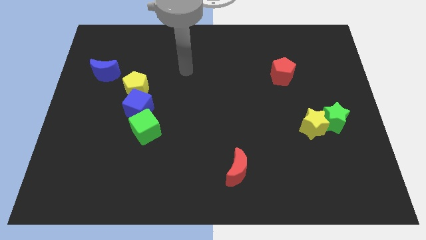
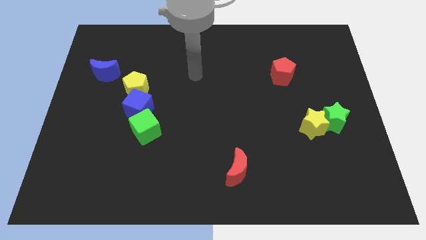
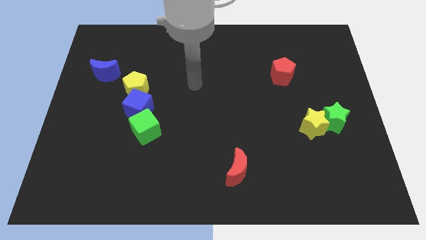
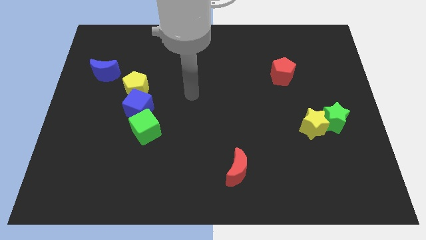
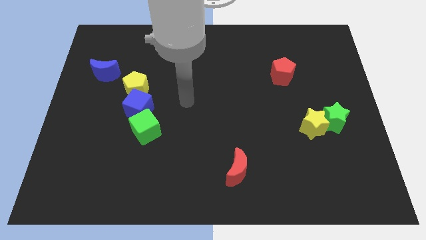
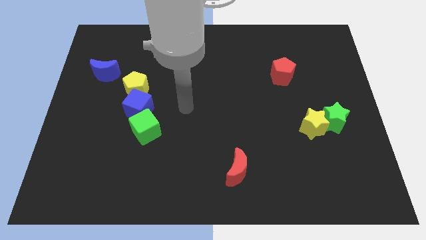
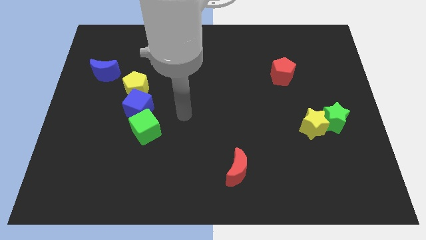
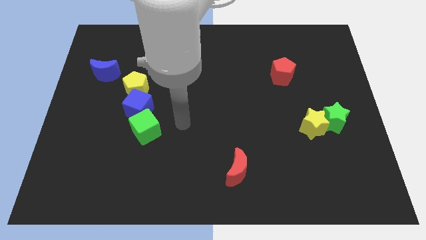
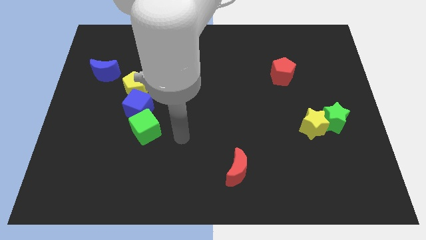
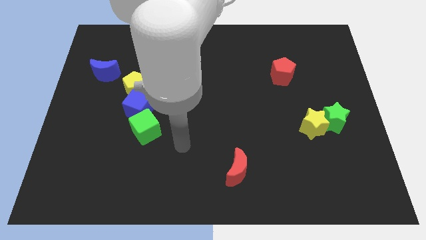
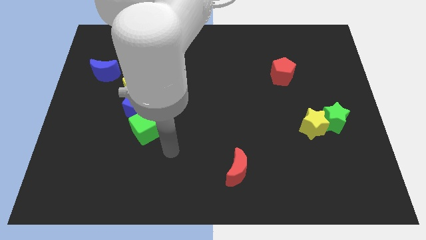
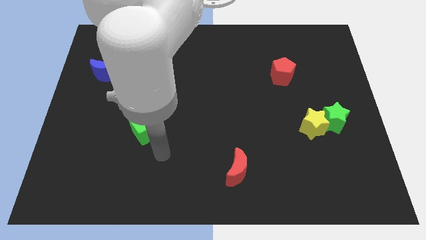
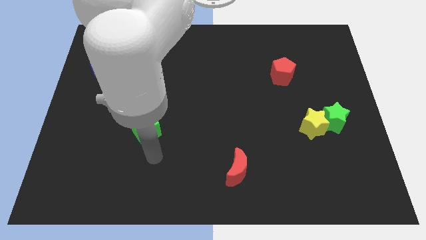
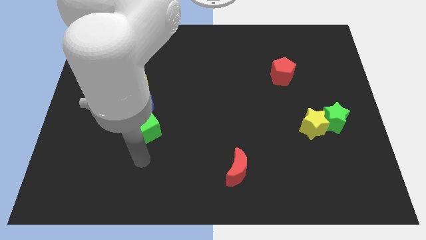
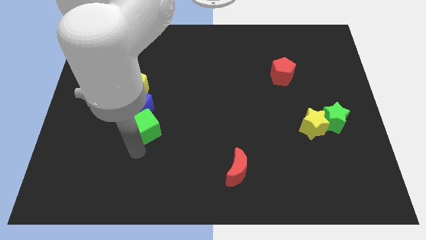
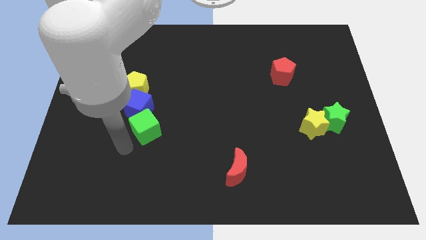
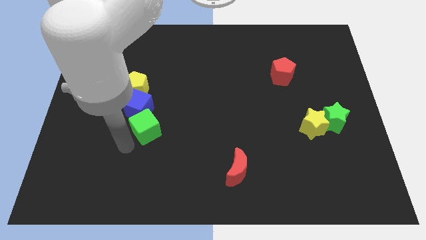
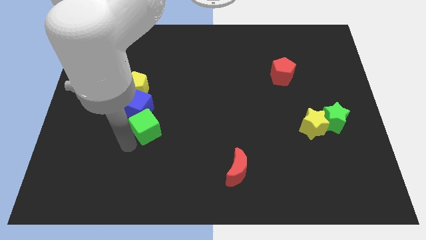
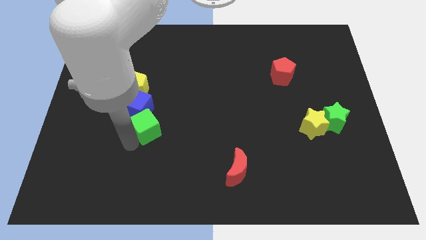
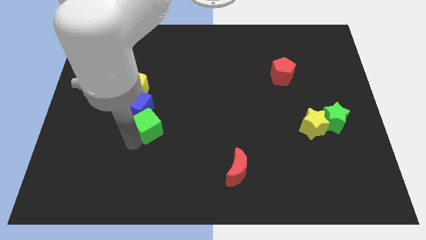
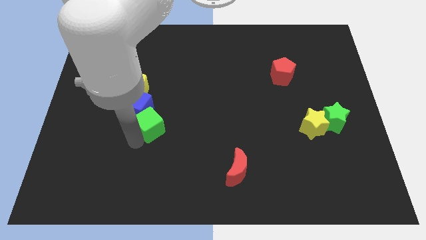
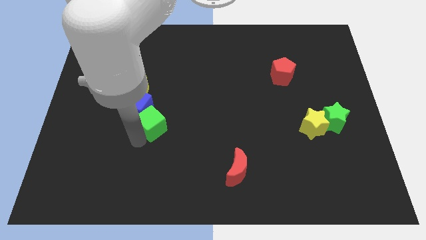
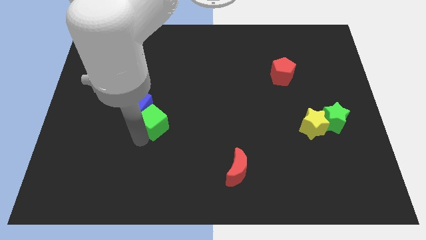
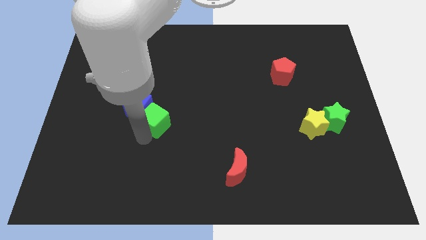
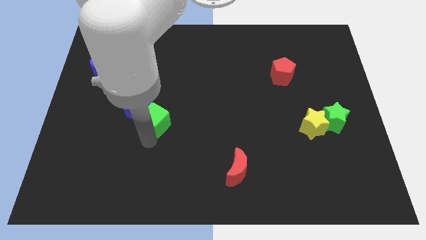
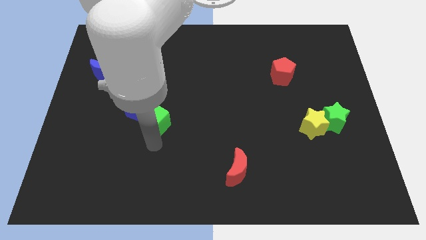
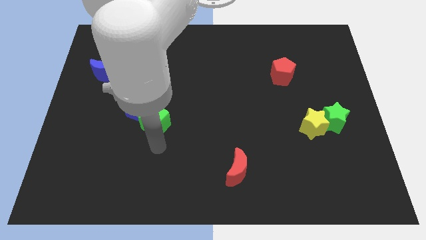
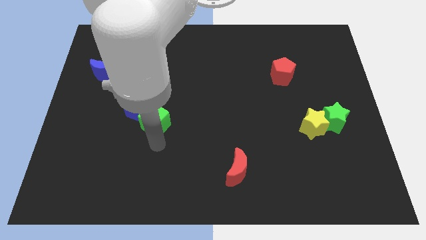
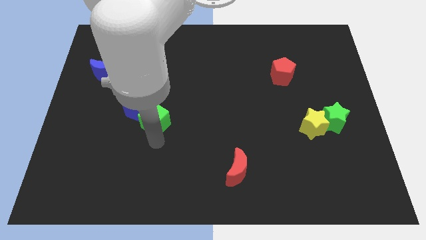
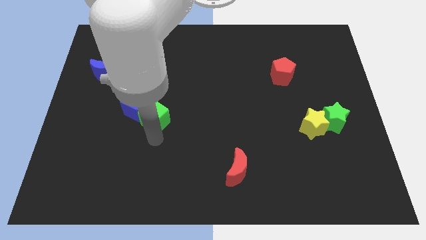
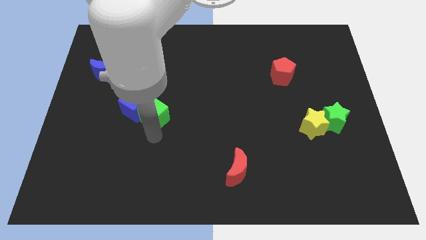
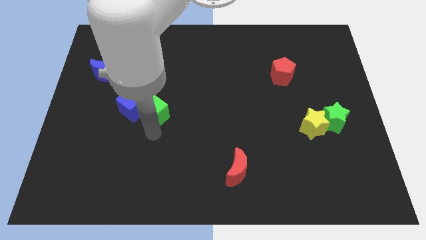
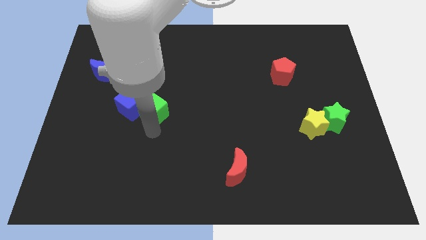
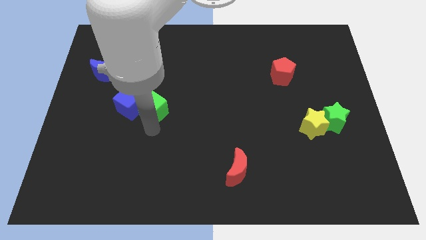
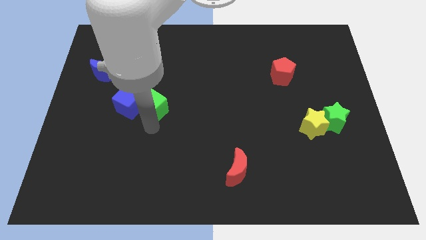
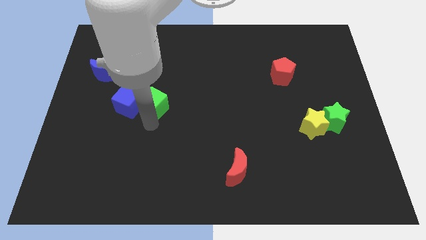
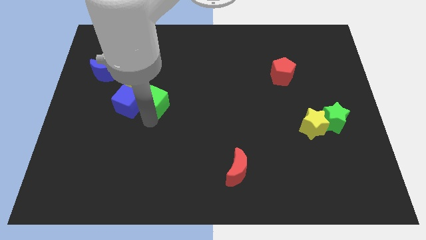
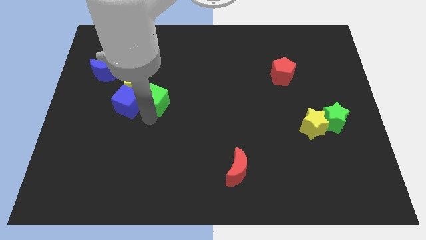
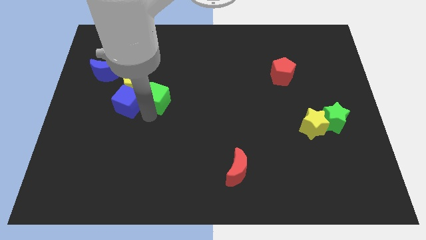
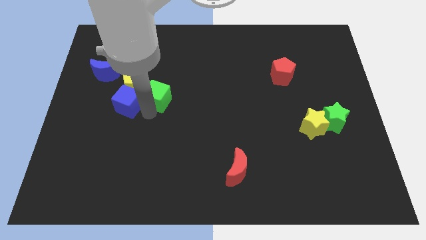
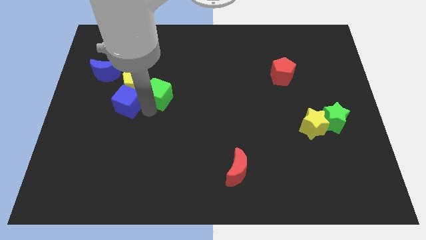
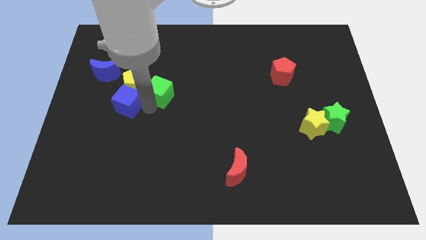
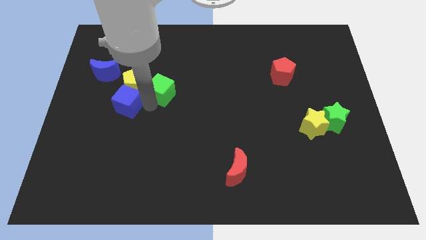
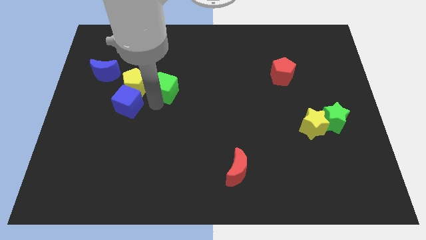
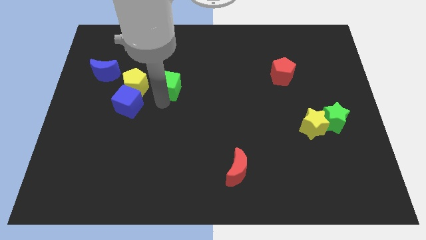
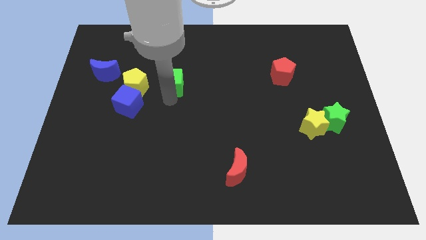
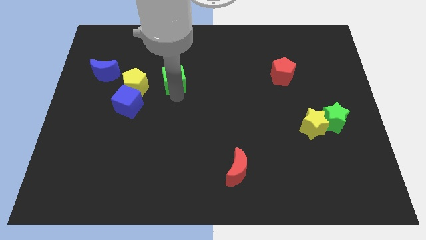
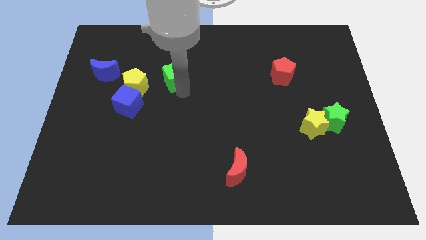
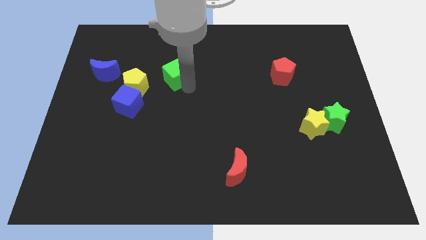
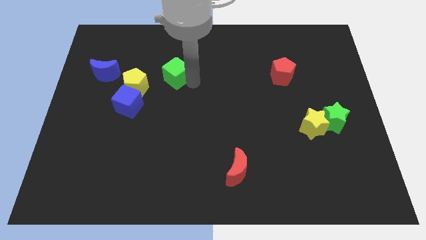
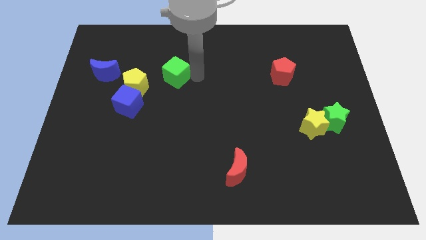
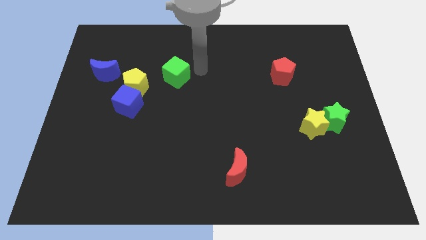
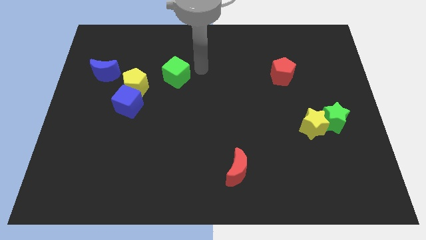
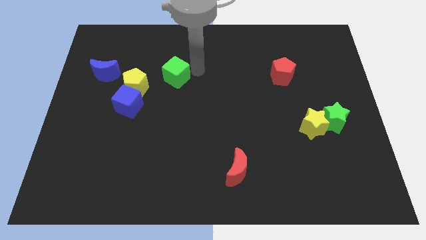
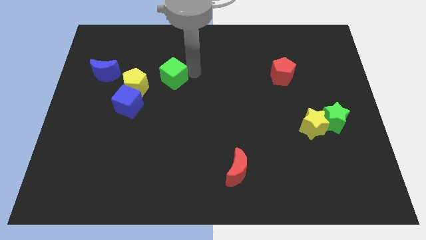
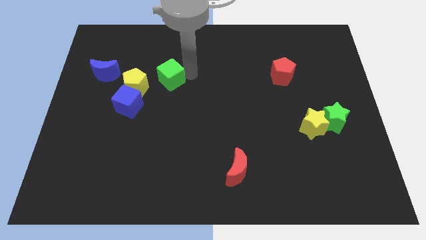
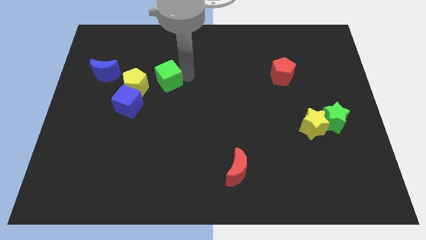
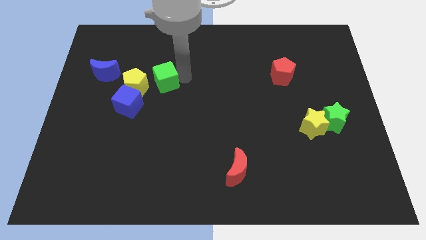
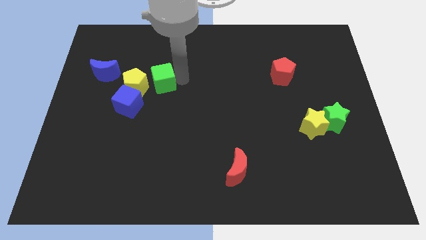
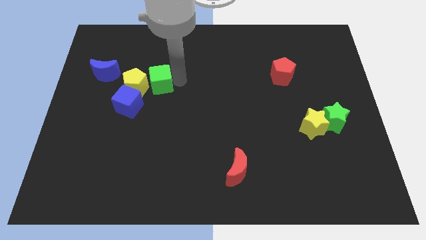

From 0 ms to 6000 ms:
put the green cube close to the yellow pentagon
